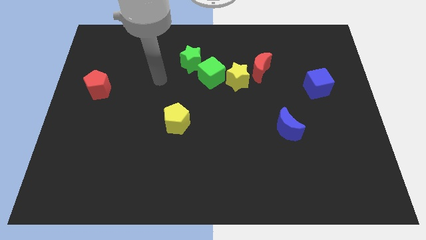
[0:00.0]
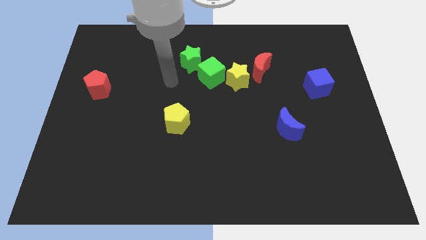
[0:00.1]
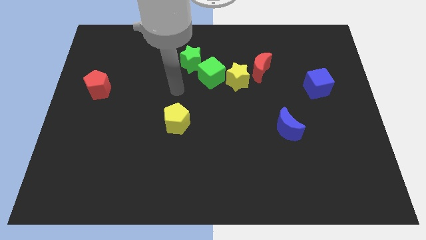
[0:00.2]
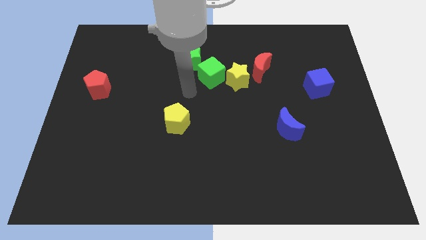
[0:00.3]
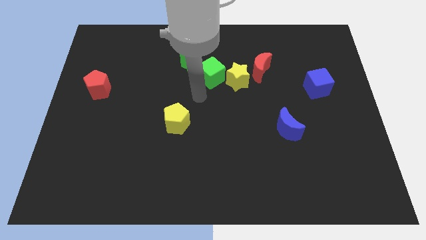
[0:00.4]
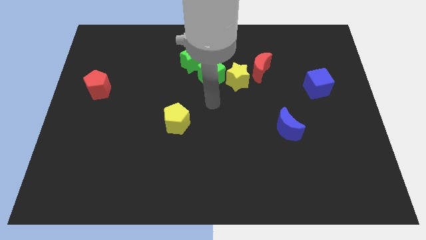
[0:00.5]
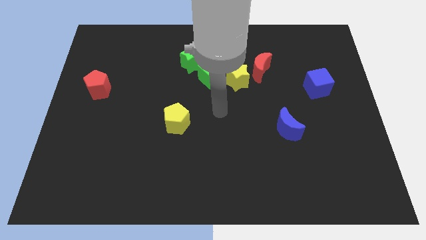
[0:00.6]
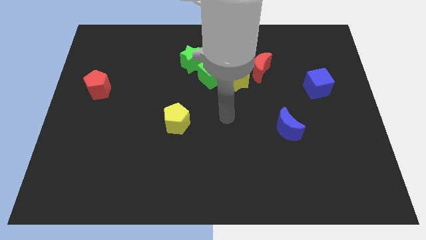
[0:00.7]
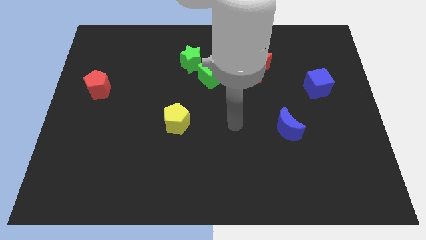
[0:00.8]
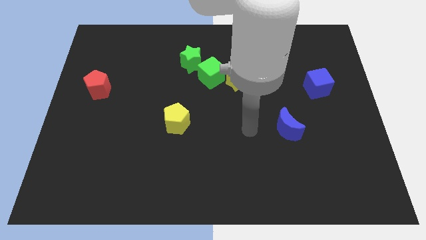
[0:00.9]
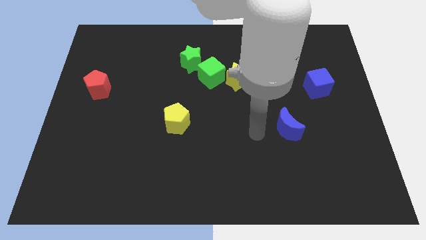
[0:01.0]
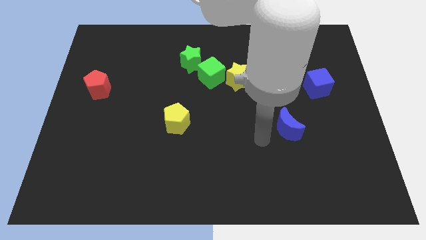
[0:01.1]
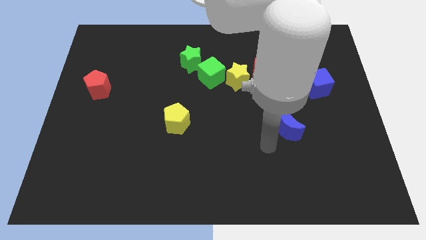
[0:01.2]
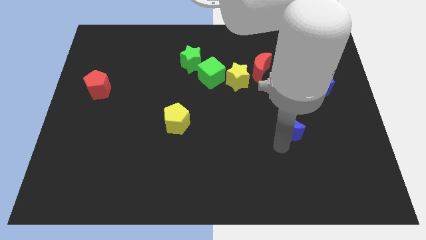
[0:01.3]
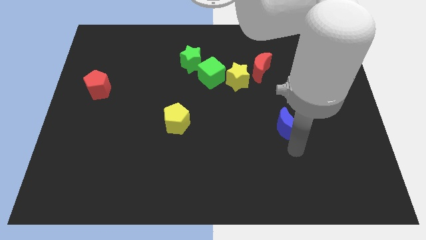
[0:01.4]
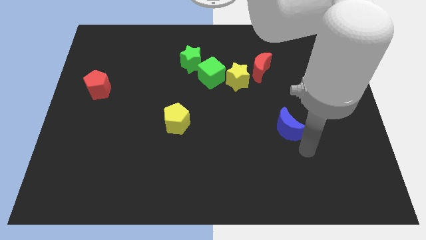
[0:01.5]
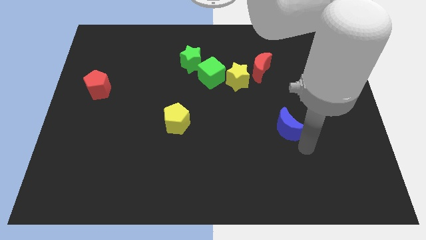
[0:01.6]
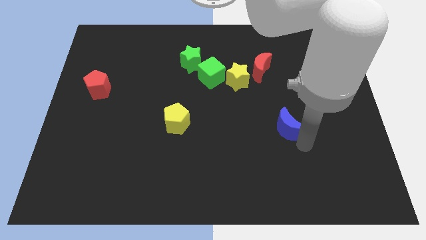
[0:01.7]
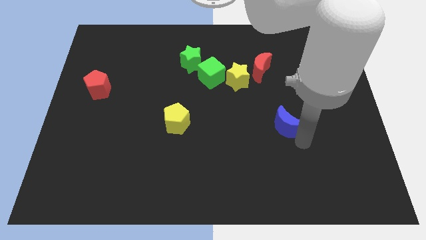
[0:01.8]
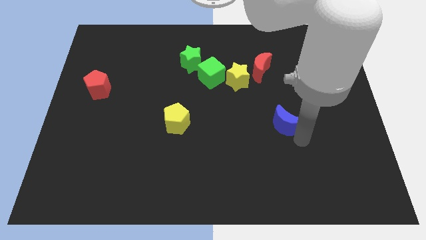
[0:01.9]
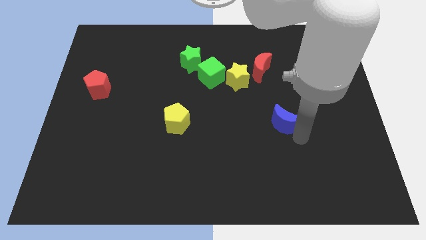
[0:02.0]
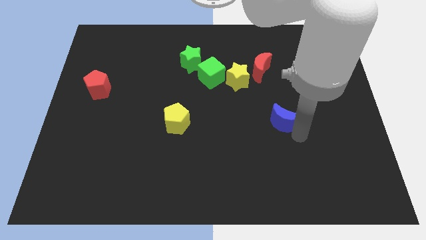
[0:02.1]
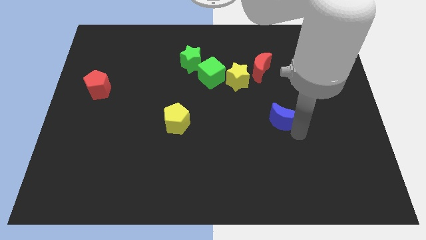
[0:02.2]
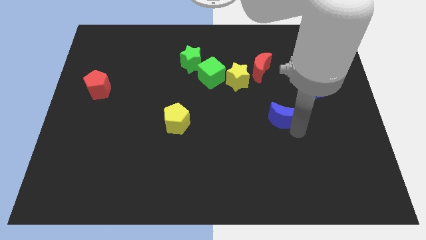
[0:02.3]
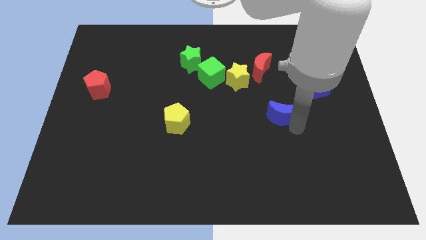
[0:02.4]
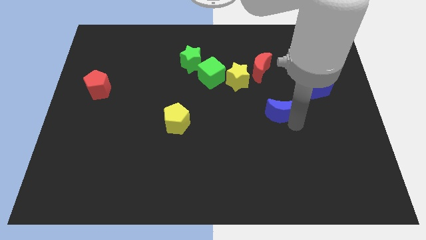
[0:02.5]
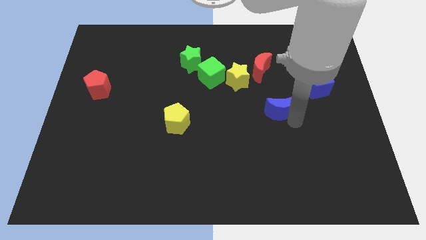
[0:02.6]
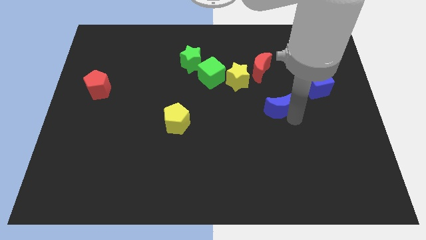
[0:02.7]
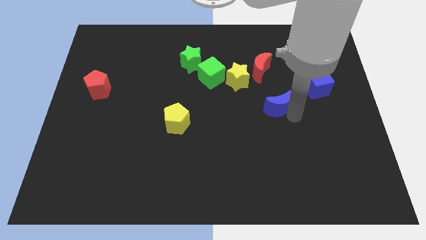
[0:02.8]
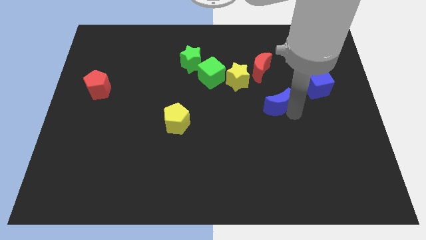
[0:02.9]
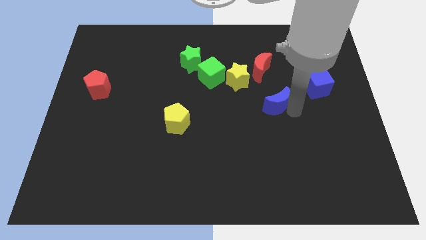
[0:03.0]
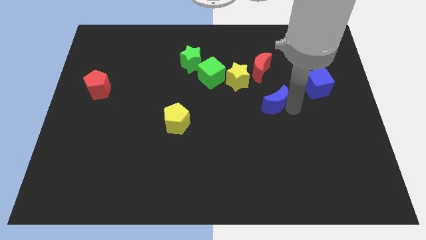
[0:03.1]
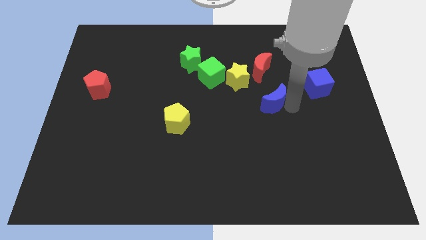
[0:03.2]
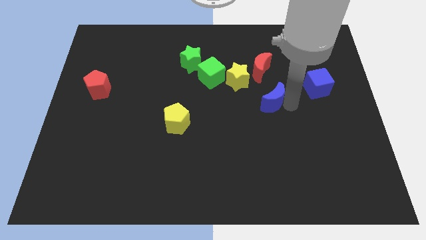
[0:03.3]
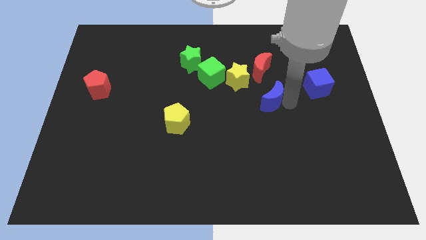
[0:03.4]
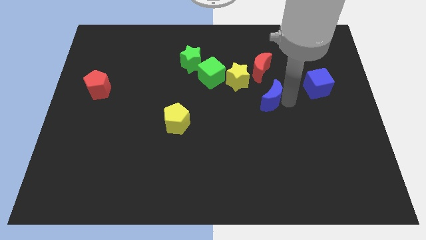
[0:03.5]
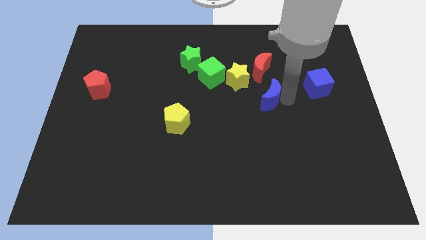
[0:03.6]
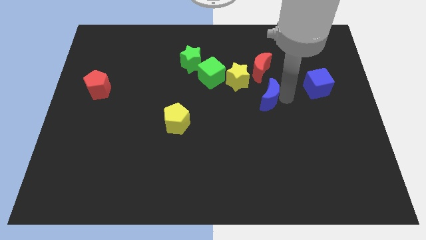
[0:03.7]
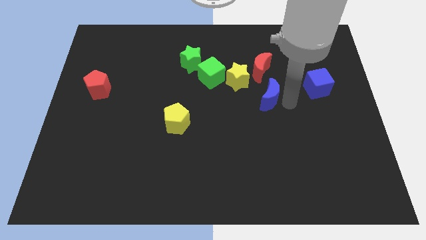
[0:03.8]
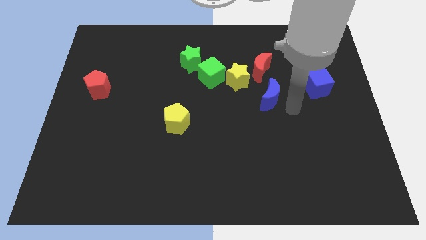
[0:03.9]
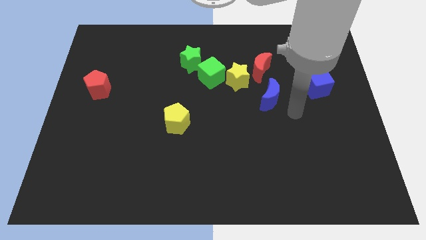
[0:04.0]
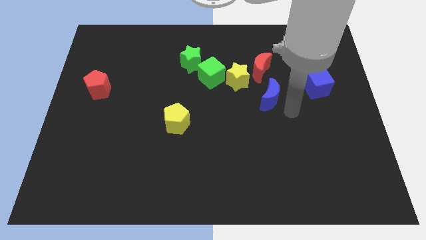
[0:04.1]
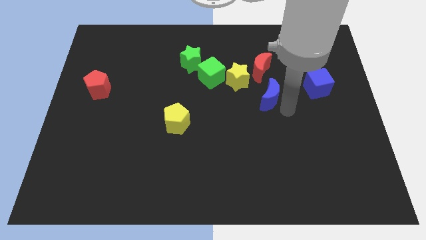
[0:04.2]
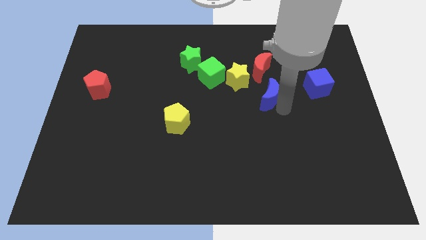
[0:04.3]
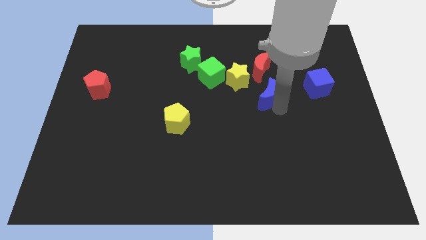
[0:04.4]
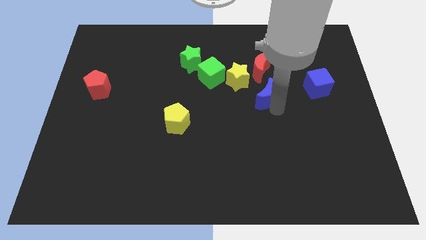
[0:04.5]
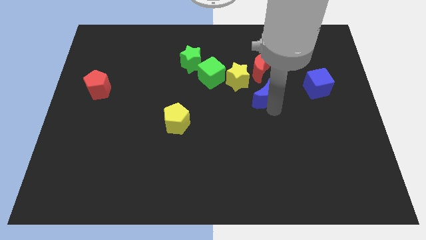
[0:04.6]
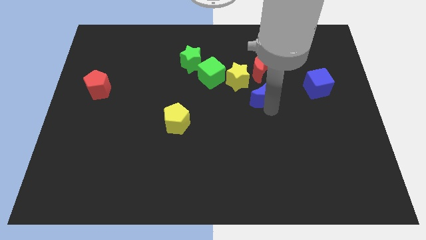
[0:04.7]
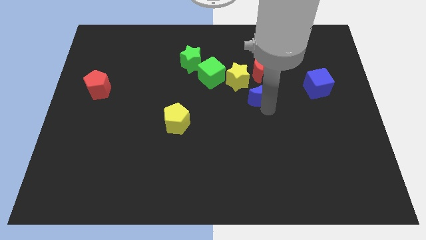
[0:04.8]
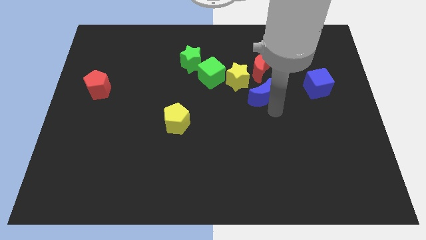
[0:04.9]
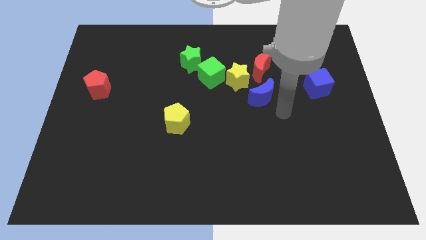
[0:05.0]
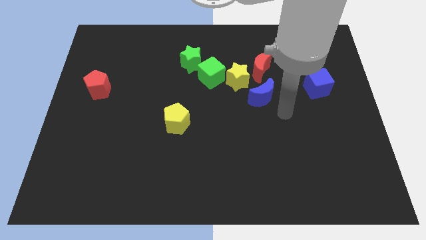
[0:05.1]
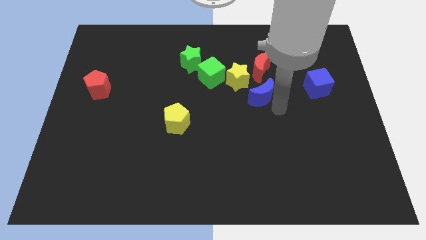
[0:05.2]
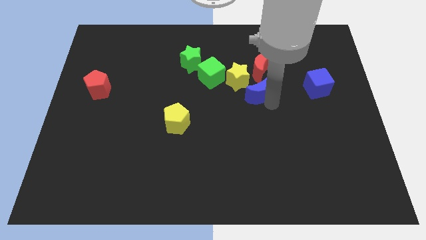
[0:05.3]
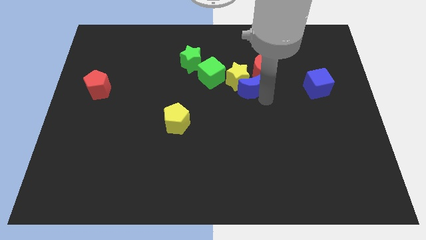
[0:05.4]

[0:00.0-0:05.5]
push the blue moon close to the yellow star

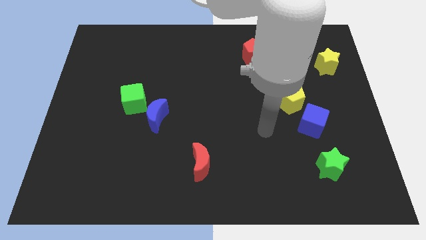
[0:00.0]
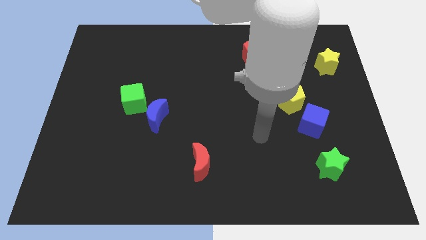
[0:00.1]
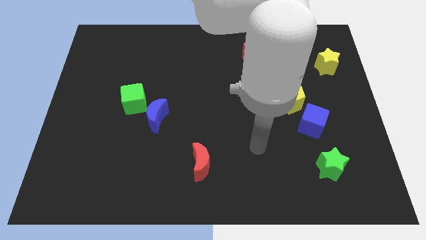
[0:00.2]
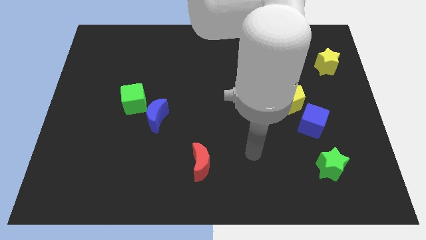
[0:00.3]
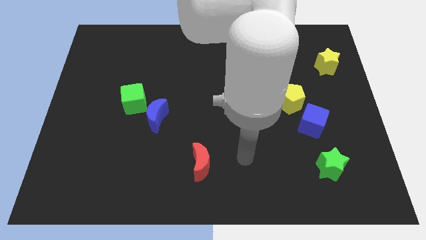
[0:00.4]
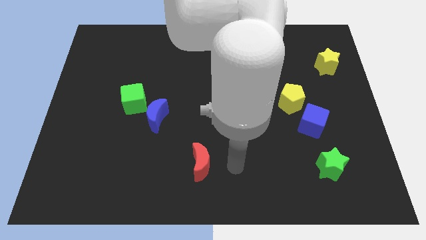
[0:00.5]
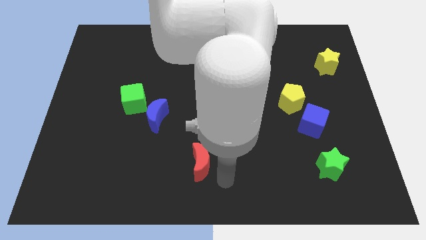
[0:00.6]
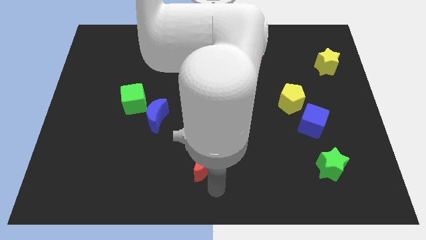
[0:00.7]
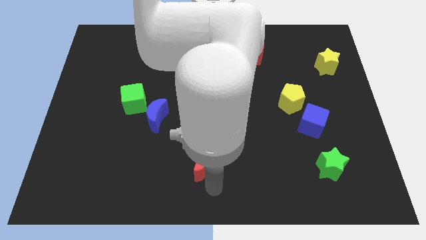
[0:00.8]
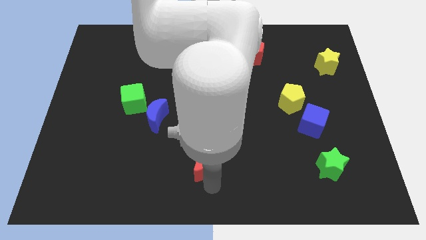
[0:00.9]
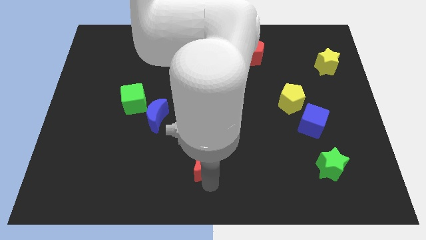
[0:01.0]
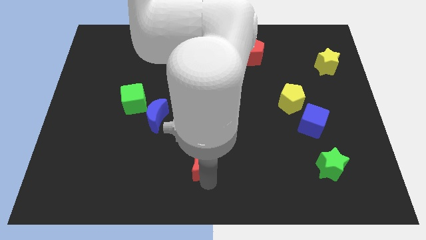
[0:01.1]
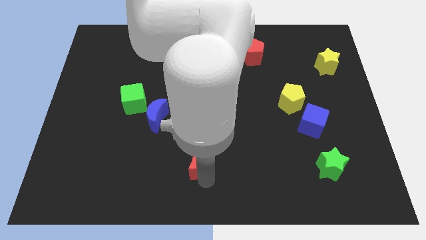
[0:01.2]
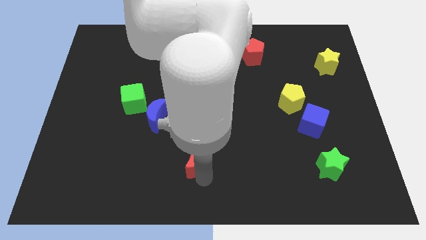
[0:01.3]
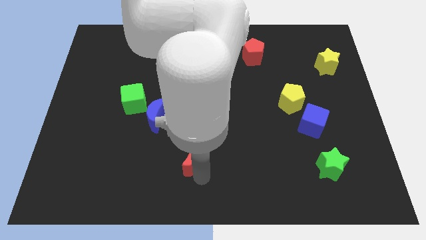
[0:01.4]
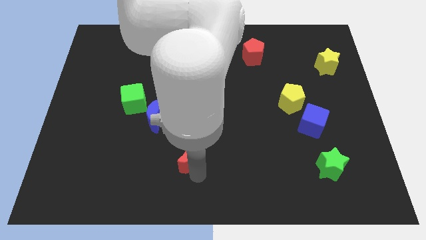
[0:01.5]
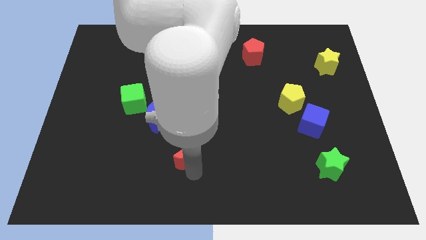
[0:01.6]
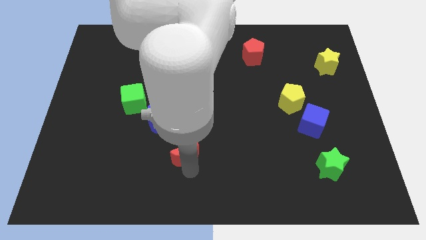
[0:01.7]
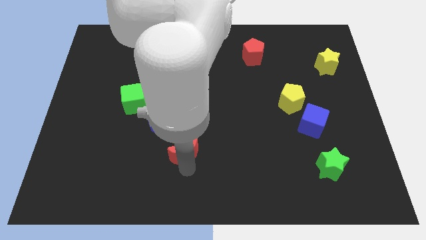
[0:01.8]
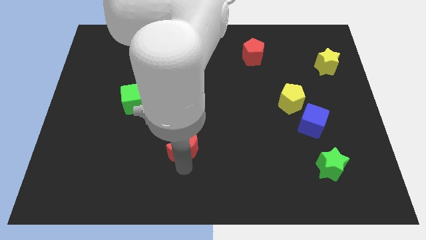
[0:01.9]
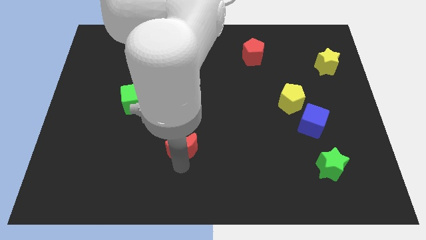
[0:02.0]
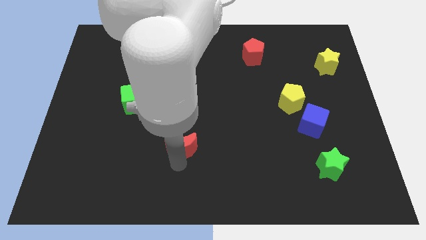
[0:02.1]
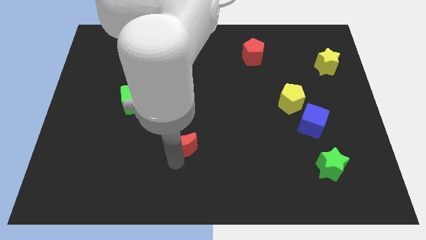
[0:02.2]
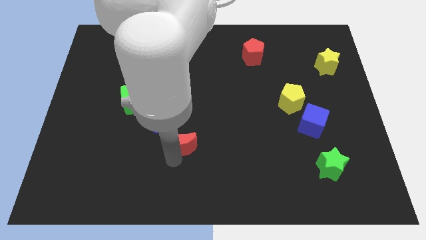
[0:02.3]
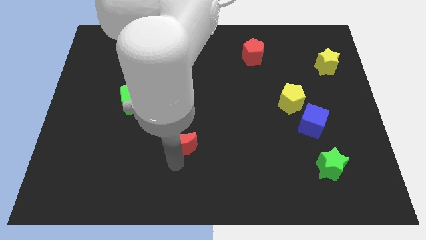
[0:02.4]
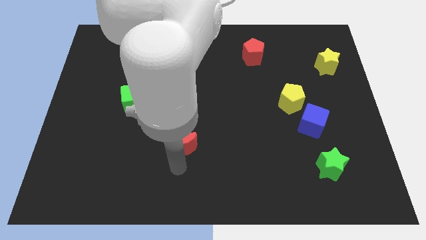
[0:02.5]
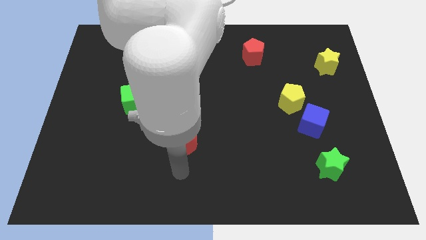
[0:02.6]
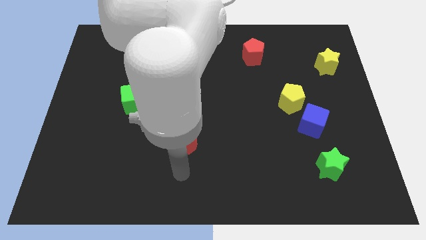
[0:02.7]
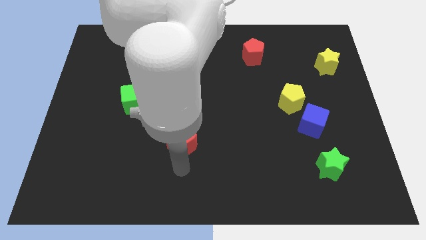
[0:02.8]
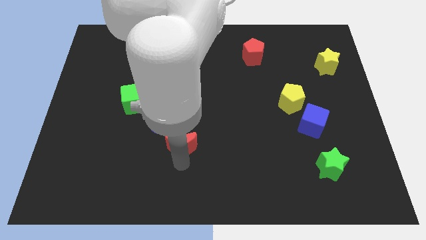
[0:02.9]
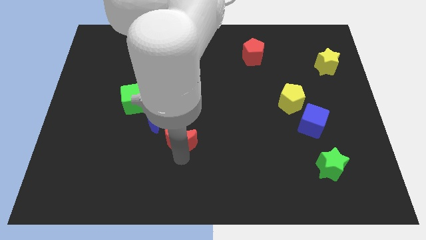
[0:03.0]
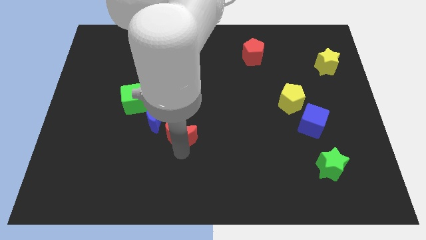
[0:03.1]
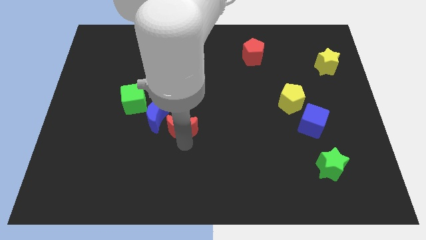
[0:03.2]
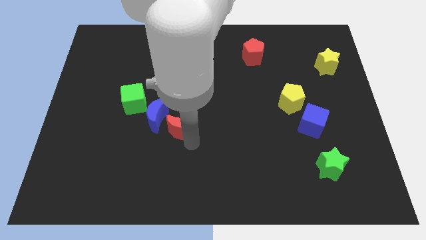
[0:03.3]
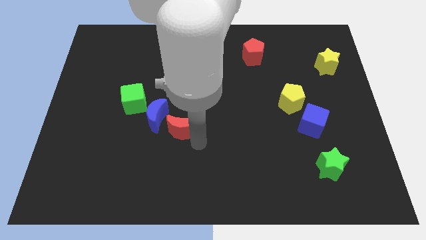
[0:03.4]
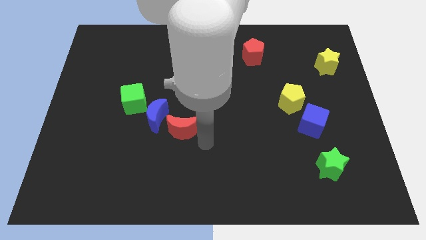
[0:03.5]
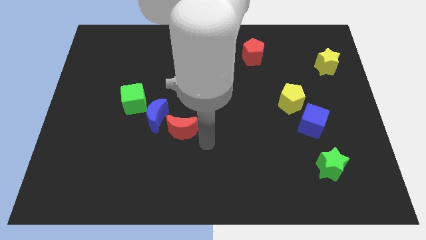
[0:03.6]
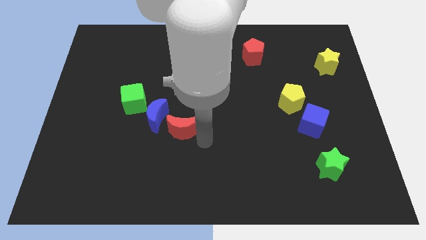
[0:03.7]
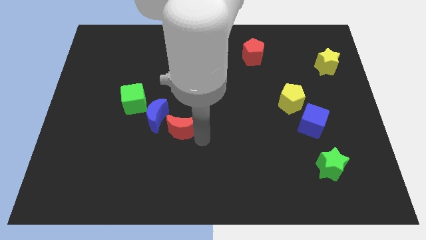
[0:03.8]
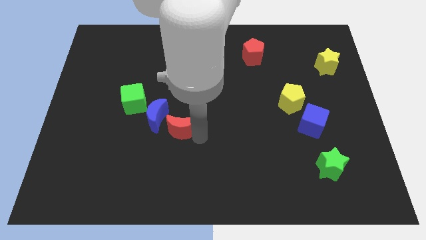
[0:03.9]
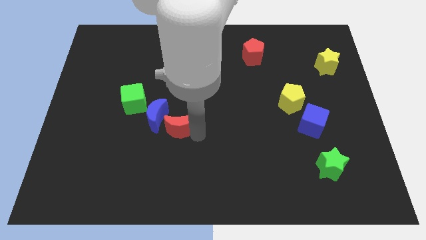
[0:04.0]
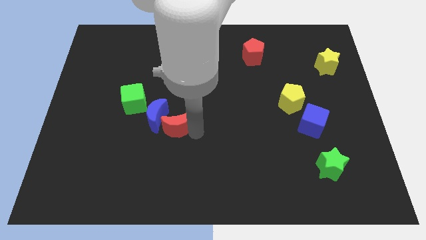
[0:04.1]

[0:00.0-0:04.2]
put the red moon towards the blue moon
